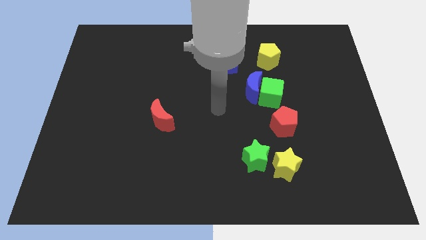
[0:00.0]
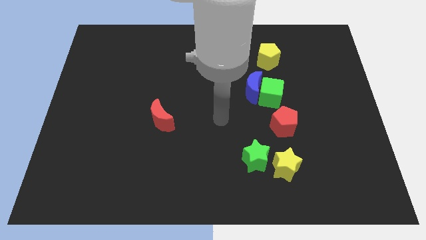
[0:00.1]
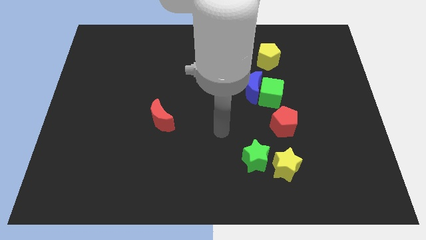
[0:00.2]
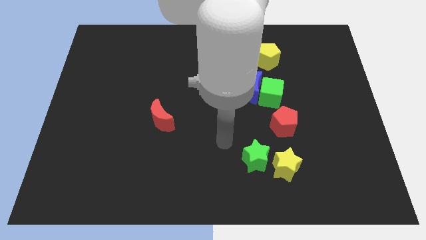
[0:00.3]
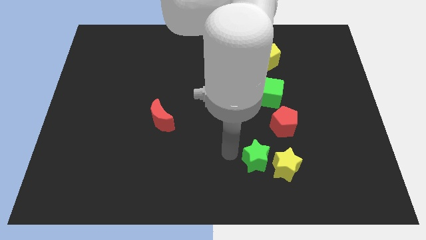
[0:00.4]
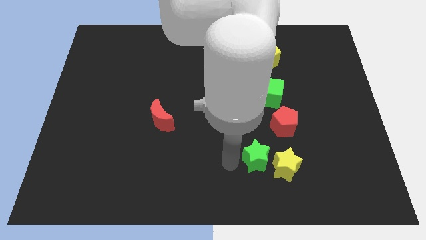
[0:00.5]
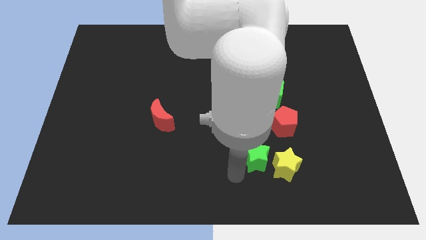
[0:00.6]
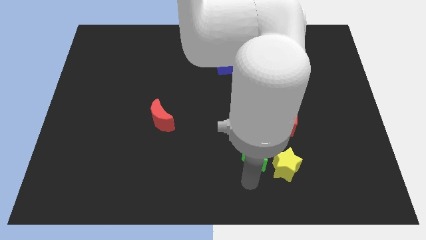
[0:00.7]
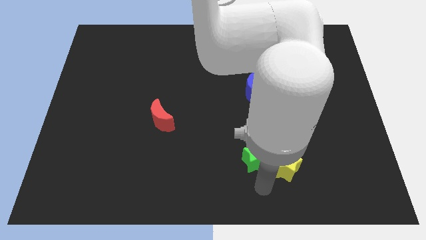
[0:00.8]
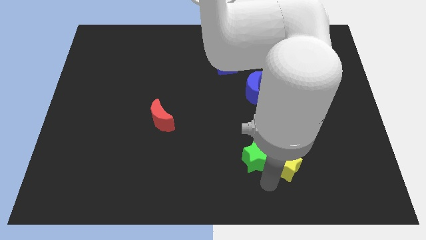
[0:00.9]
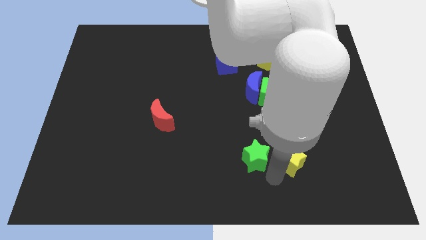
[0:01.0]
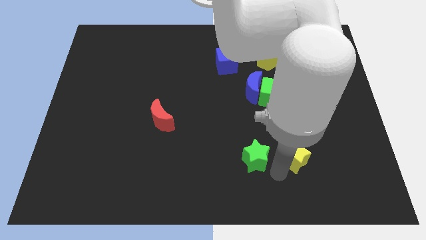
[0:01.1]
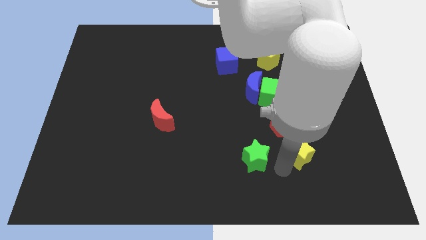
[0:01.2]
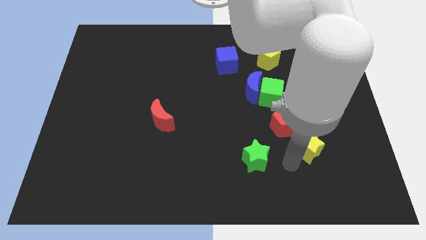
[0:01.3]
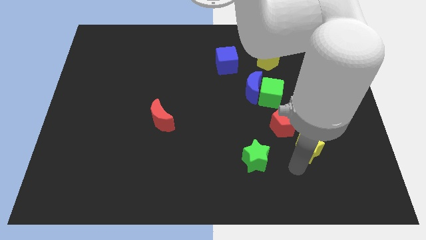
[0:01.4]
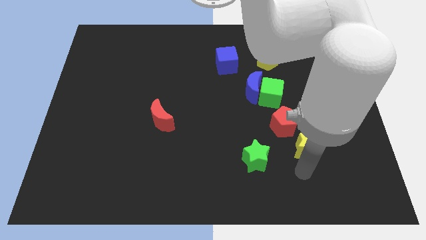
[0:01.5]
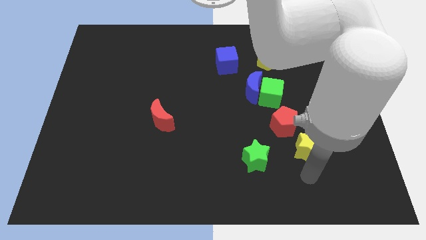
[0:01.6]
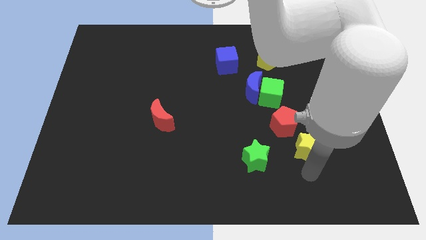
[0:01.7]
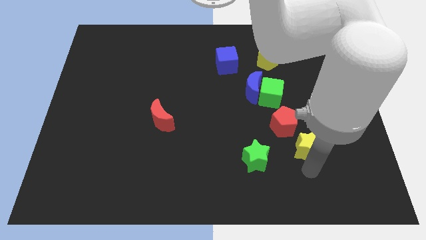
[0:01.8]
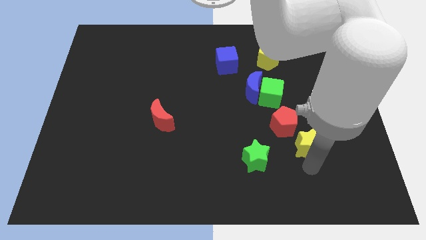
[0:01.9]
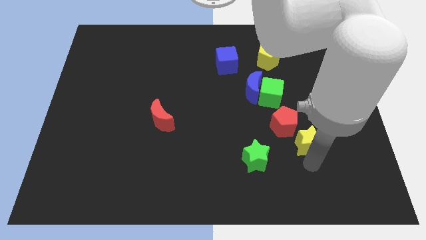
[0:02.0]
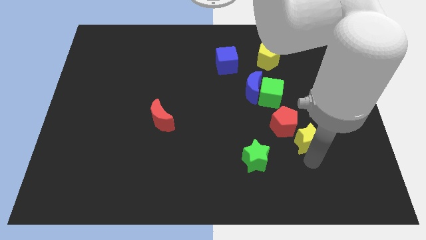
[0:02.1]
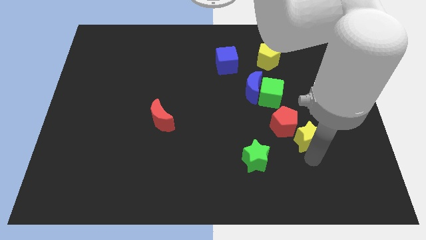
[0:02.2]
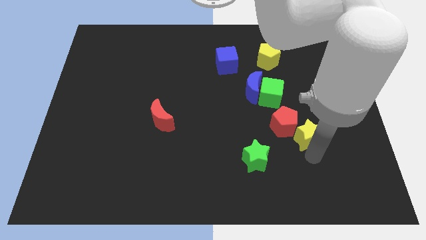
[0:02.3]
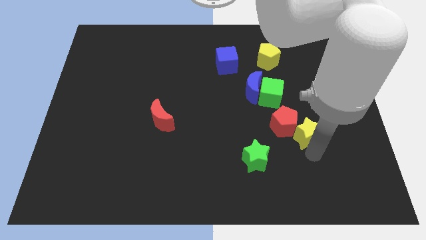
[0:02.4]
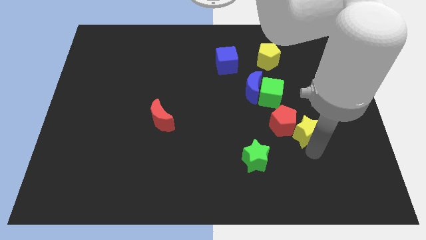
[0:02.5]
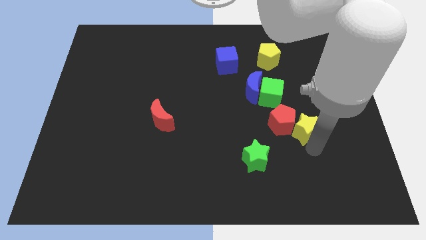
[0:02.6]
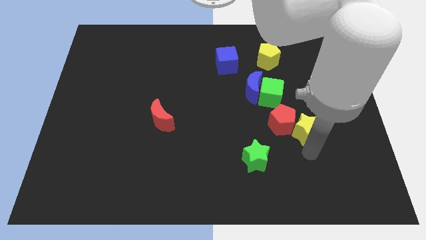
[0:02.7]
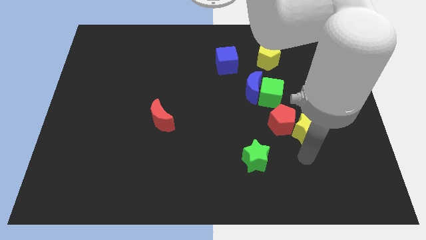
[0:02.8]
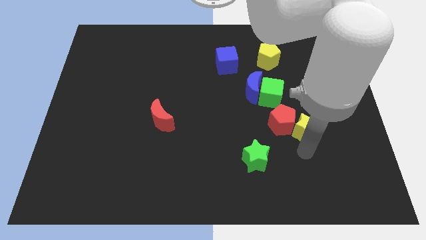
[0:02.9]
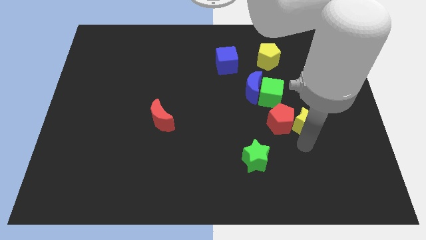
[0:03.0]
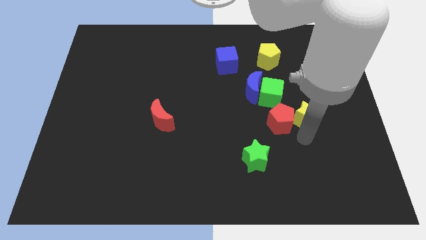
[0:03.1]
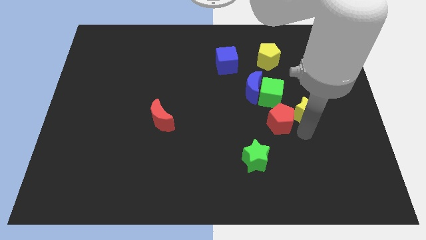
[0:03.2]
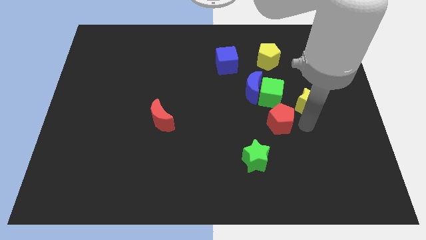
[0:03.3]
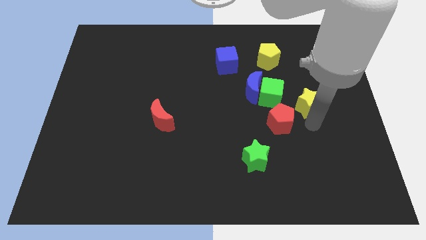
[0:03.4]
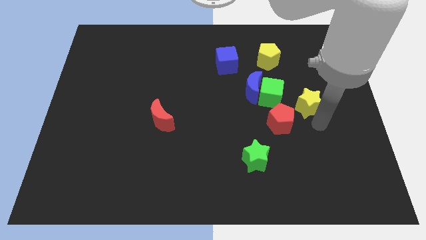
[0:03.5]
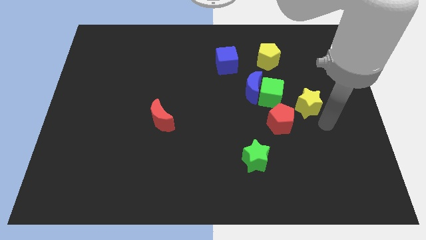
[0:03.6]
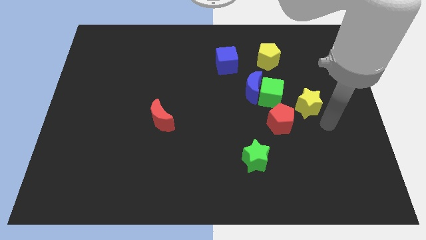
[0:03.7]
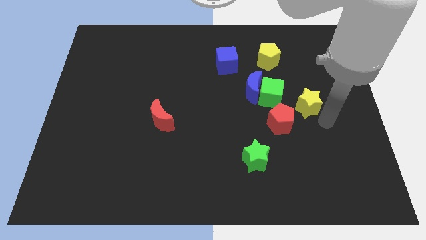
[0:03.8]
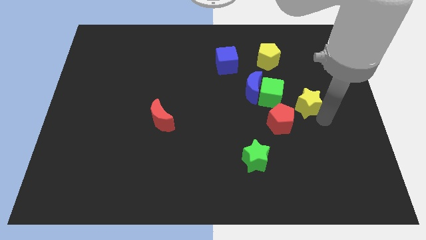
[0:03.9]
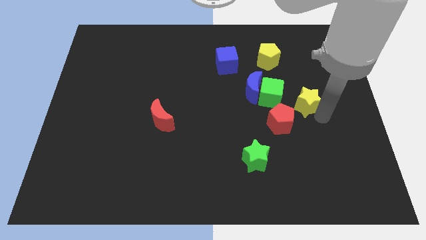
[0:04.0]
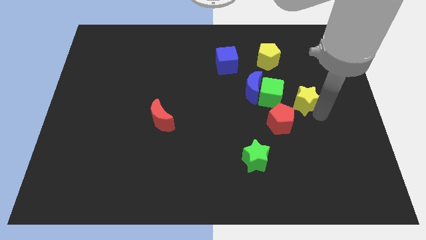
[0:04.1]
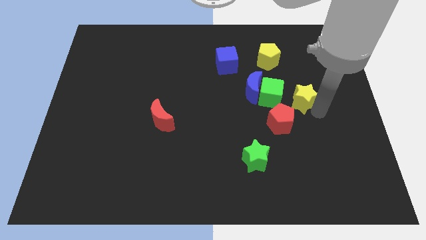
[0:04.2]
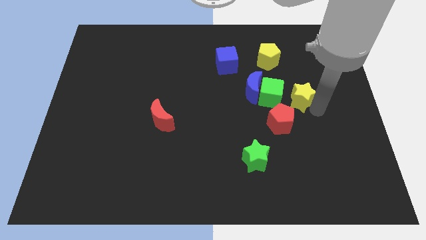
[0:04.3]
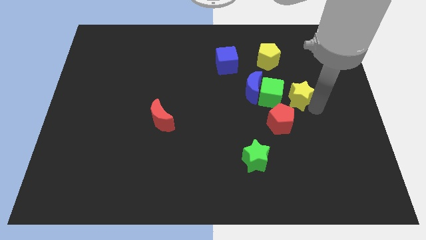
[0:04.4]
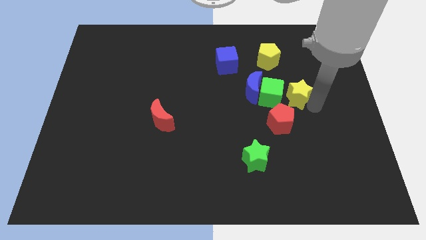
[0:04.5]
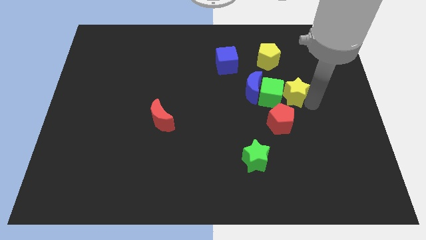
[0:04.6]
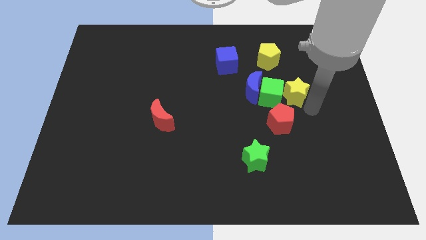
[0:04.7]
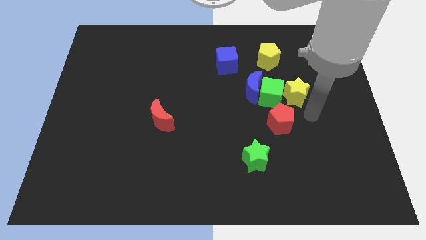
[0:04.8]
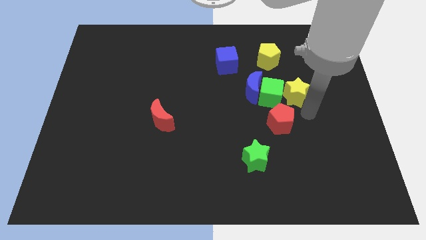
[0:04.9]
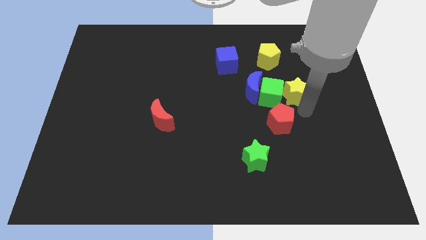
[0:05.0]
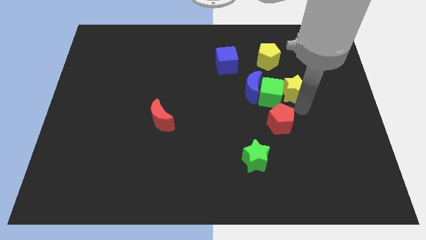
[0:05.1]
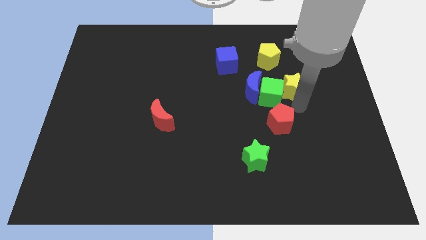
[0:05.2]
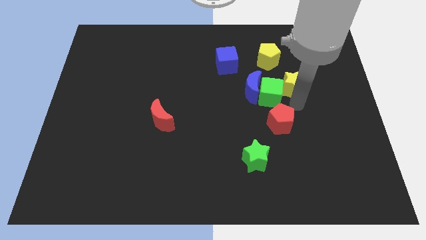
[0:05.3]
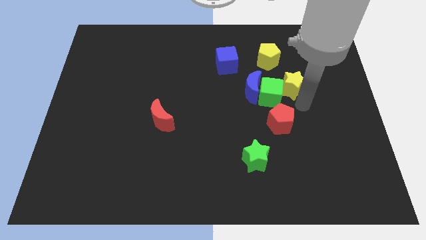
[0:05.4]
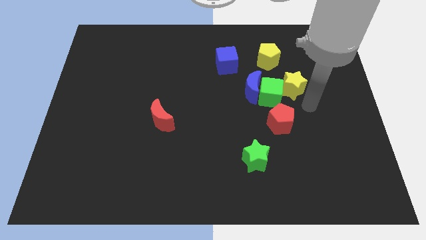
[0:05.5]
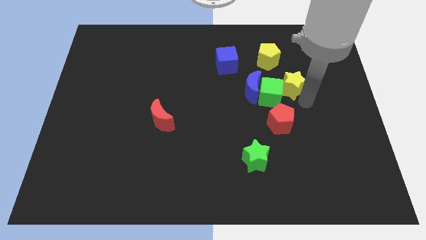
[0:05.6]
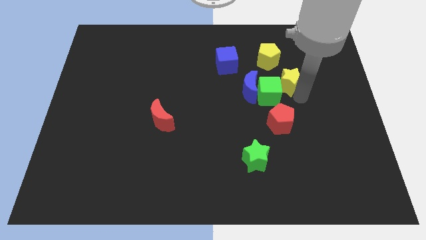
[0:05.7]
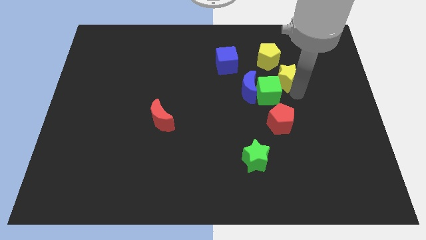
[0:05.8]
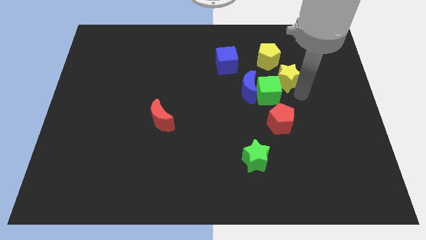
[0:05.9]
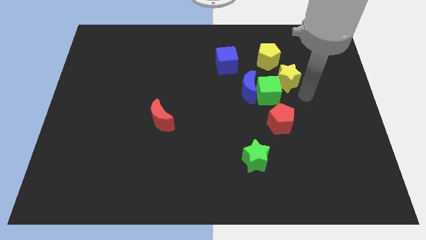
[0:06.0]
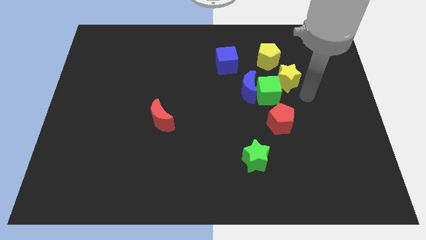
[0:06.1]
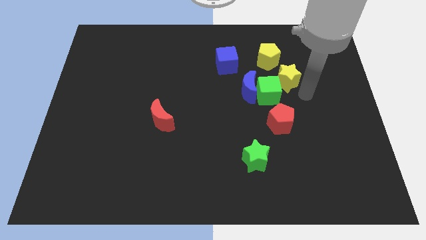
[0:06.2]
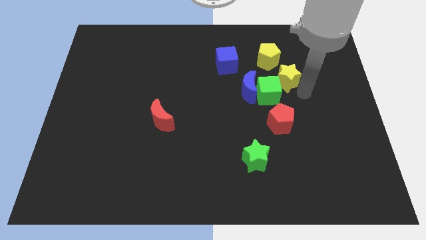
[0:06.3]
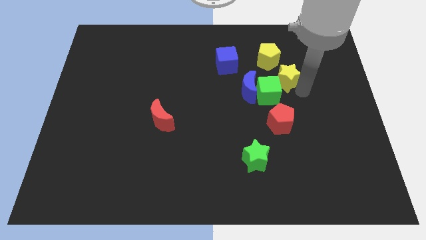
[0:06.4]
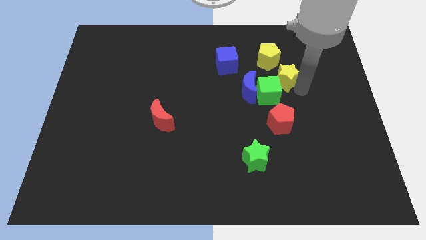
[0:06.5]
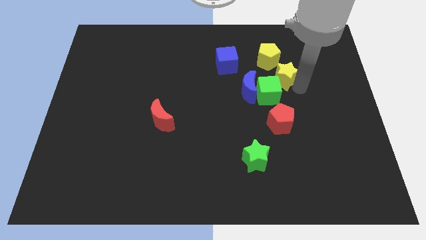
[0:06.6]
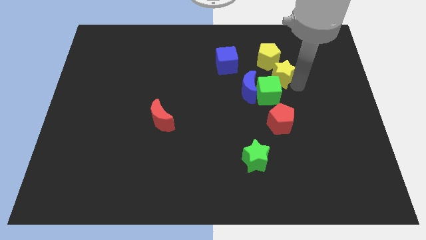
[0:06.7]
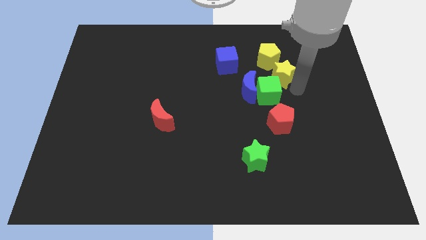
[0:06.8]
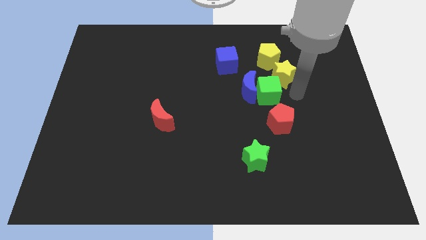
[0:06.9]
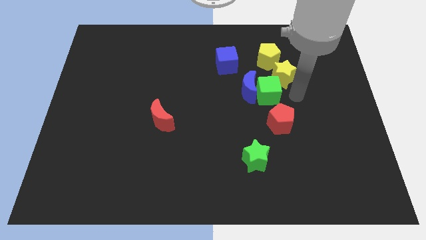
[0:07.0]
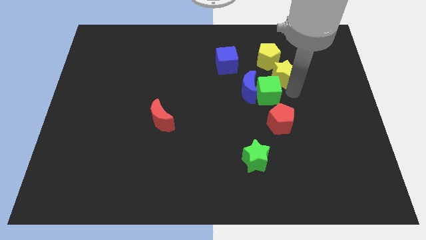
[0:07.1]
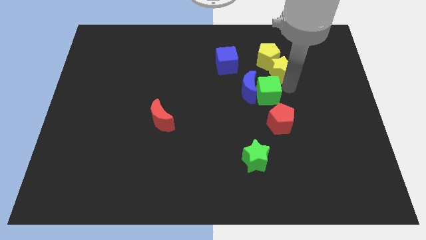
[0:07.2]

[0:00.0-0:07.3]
push the yellow star next to the yellow pentagon

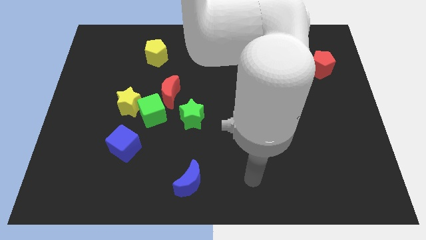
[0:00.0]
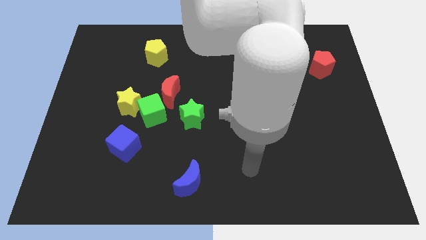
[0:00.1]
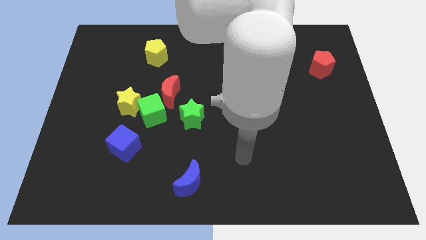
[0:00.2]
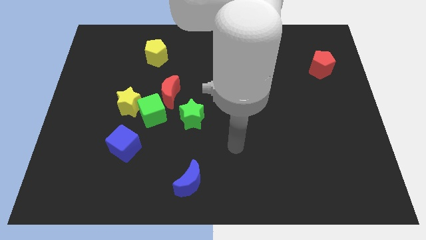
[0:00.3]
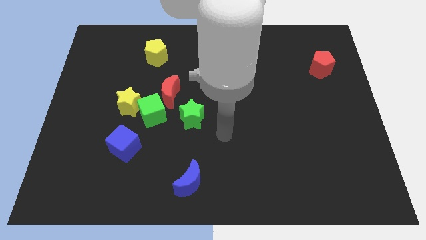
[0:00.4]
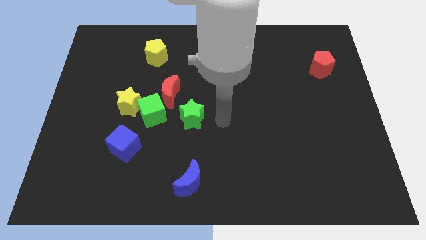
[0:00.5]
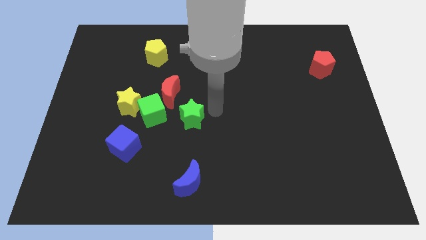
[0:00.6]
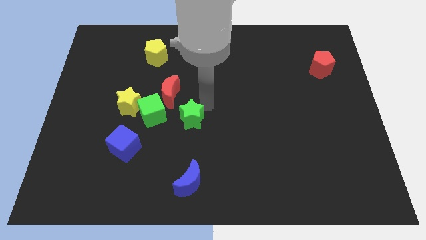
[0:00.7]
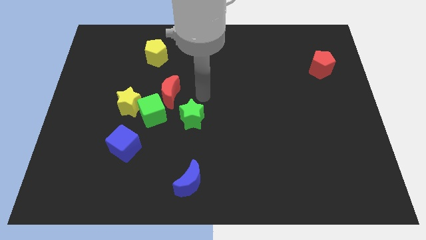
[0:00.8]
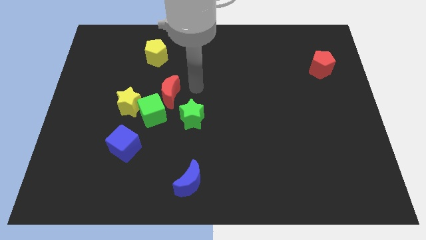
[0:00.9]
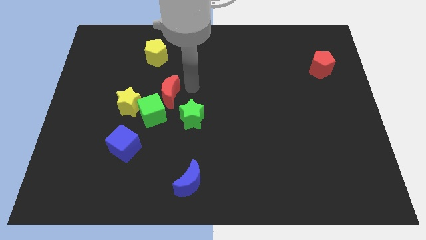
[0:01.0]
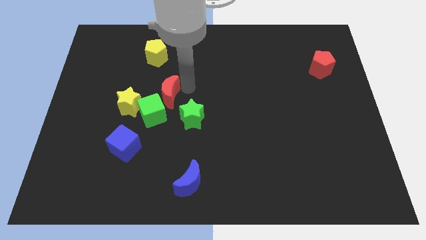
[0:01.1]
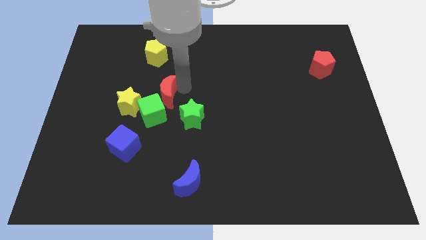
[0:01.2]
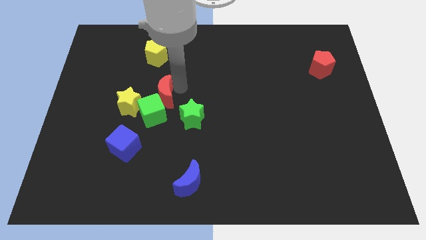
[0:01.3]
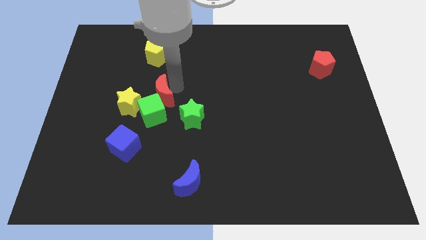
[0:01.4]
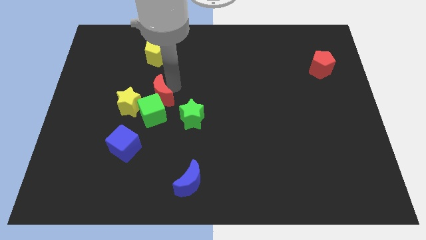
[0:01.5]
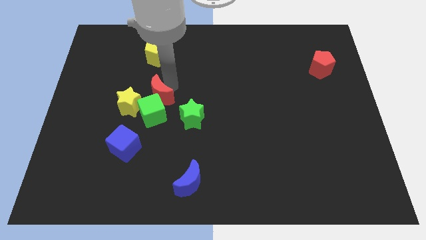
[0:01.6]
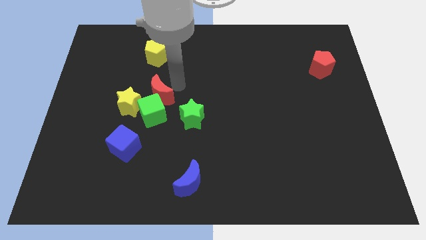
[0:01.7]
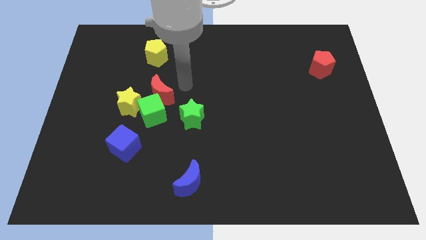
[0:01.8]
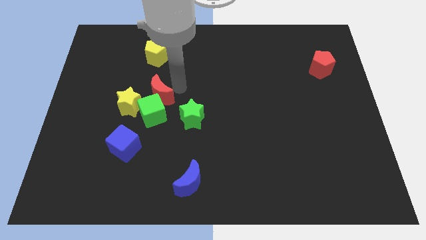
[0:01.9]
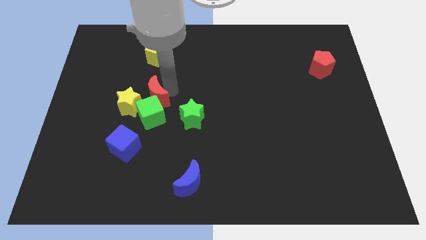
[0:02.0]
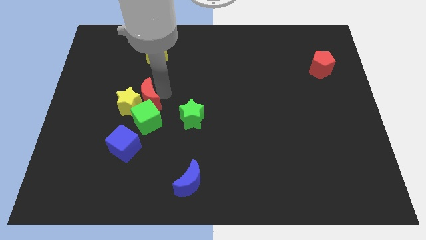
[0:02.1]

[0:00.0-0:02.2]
slide the red moon towards the yellow star
